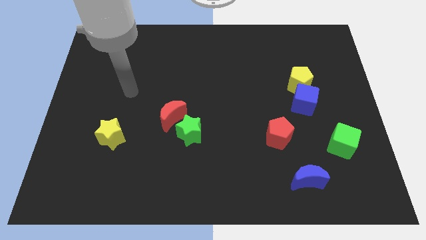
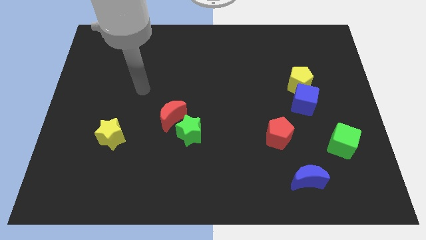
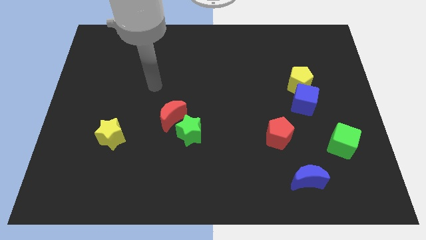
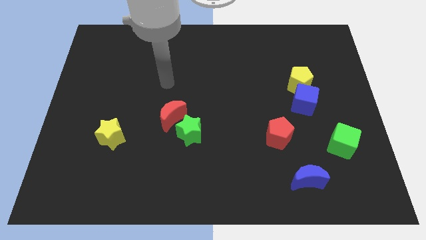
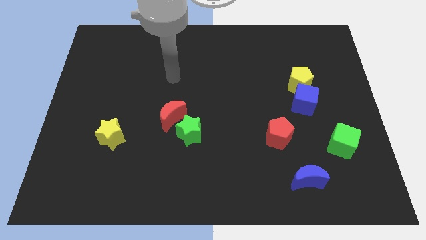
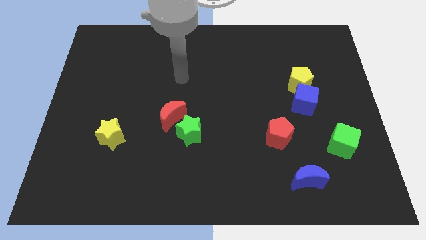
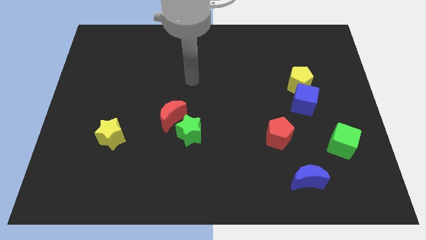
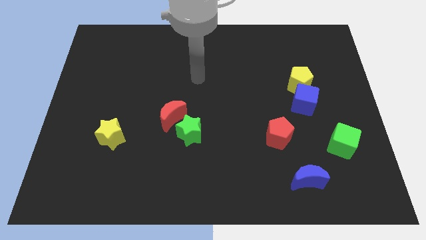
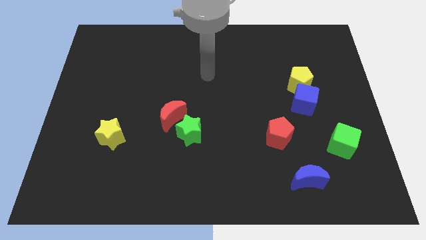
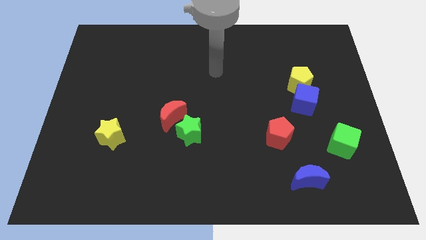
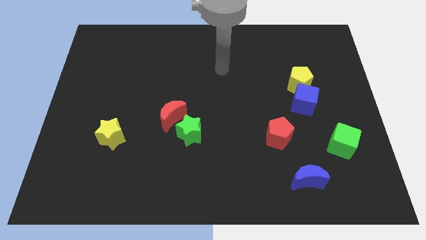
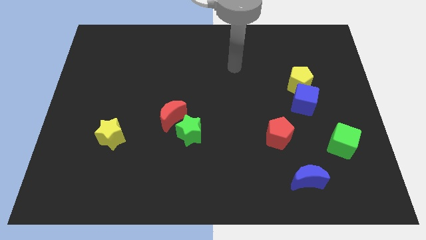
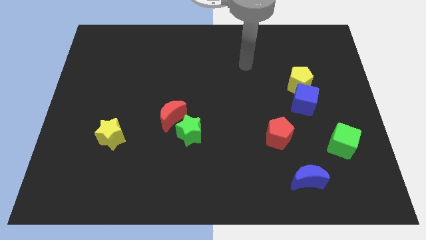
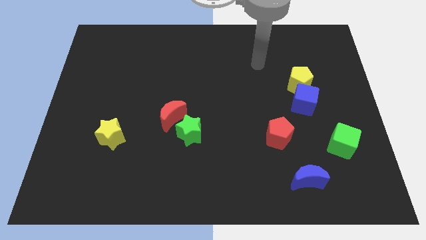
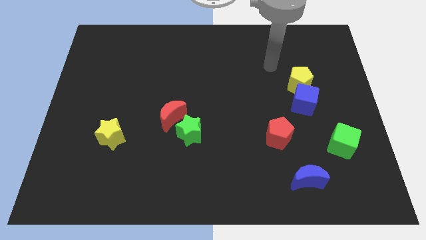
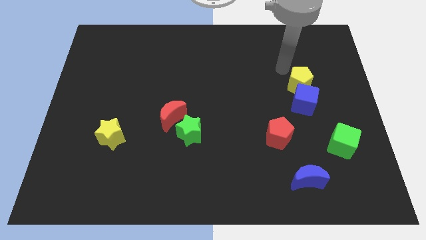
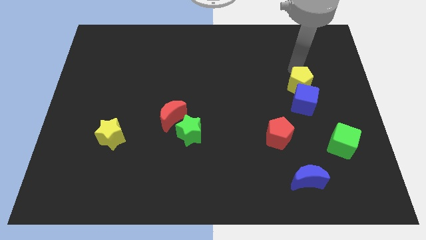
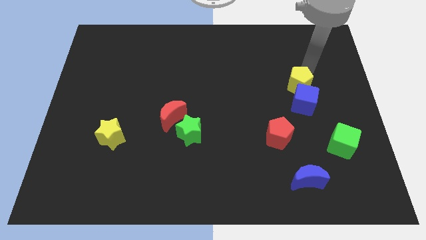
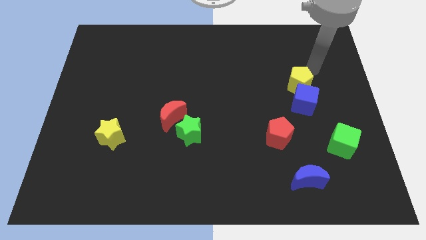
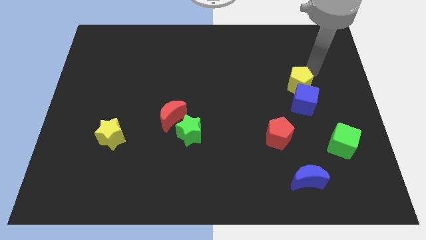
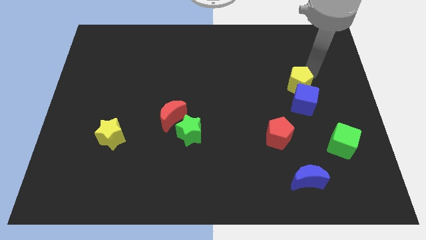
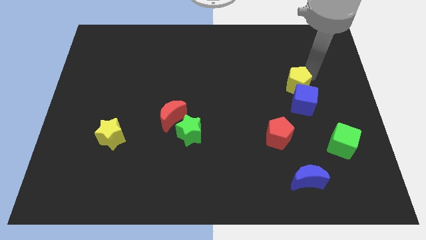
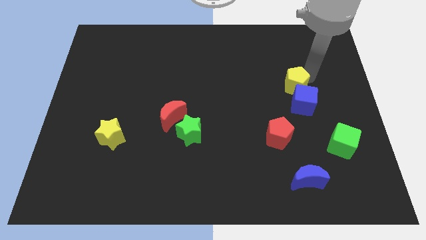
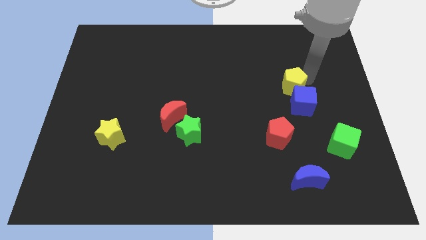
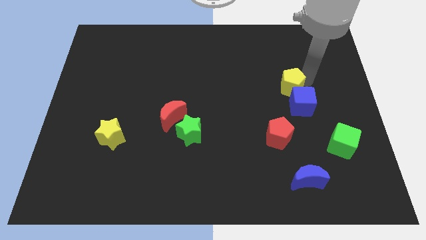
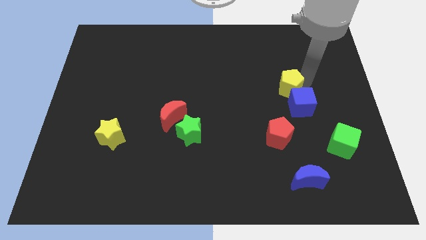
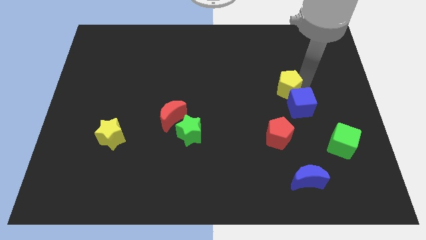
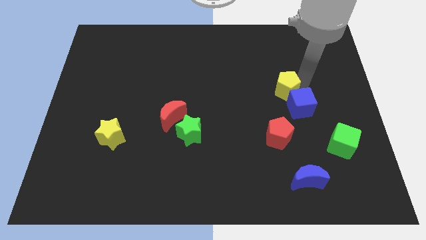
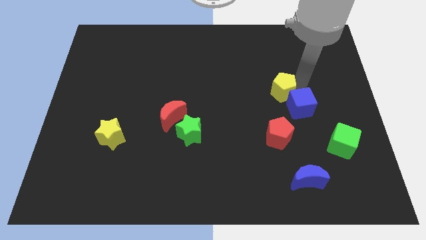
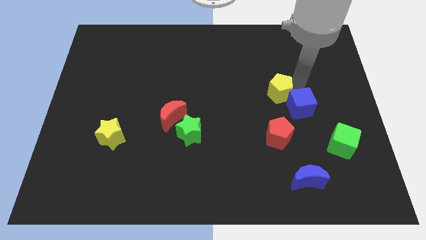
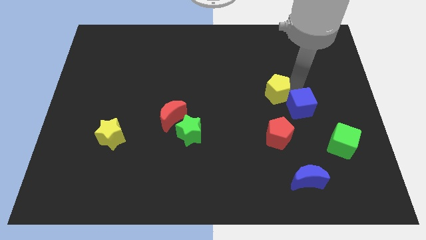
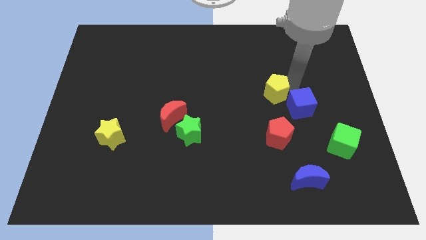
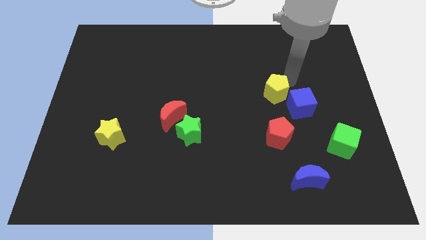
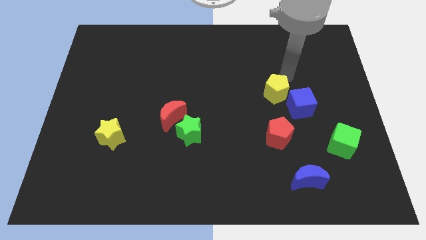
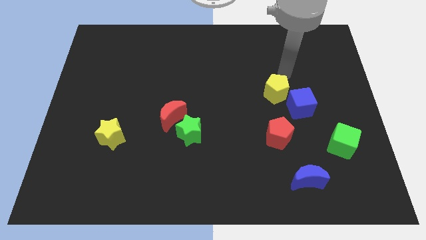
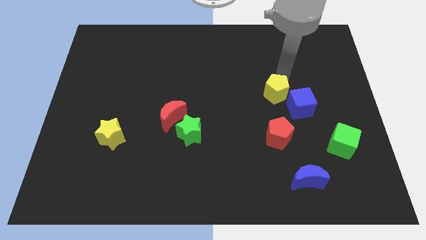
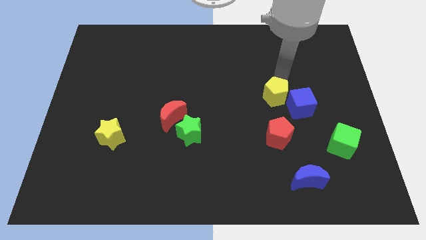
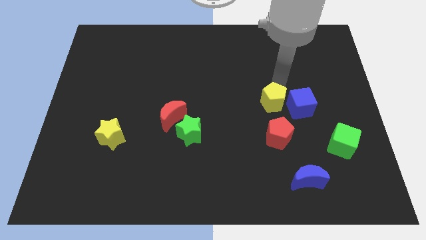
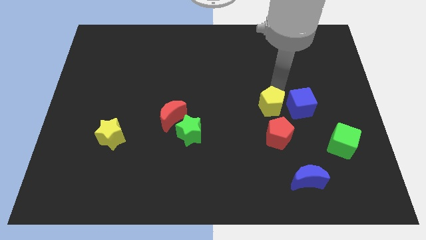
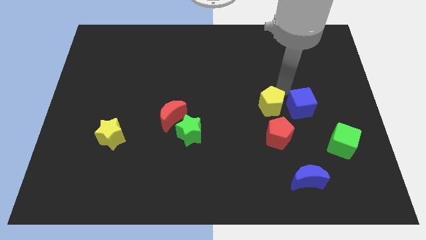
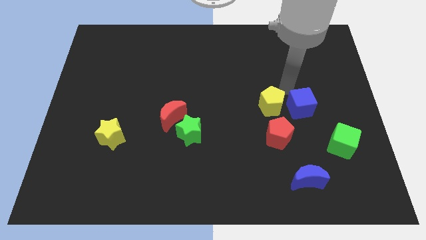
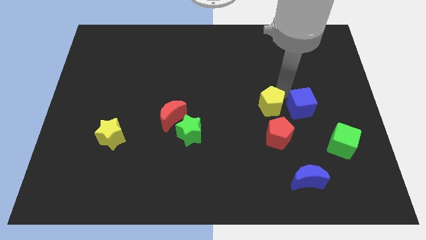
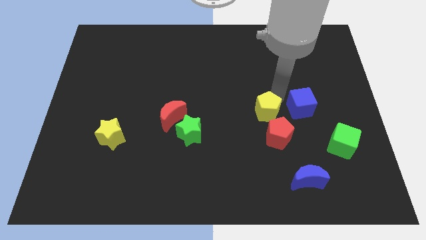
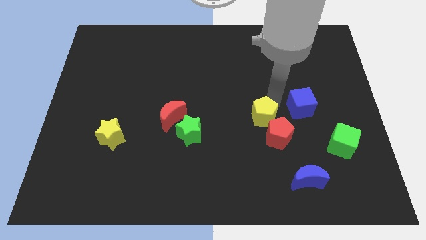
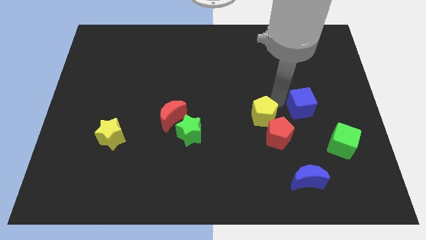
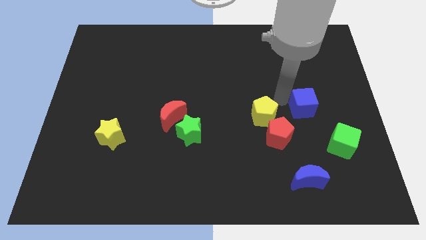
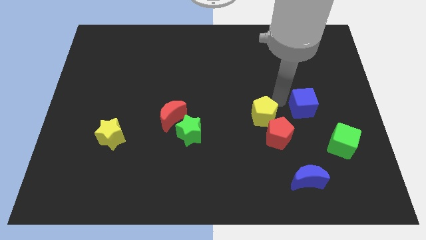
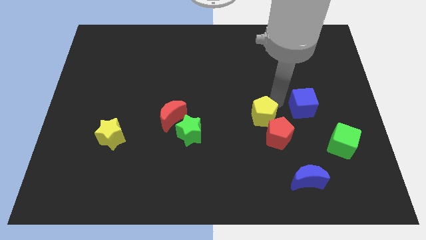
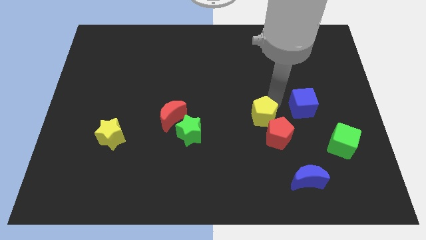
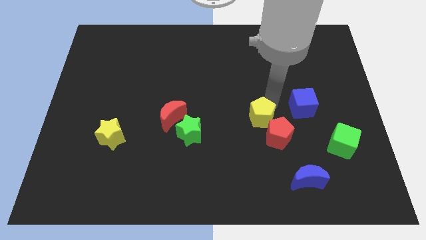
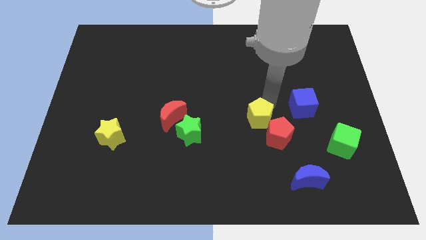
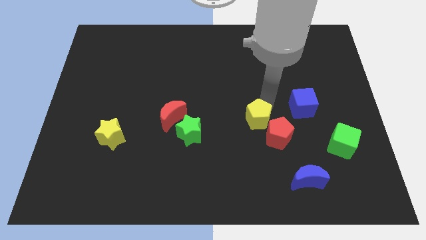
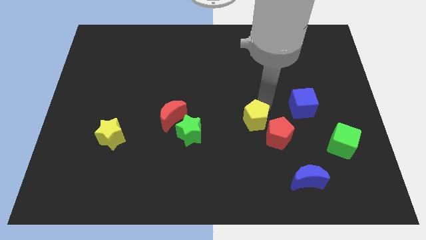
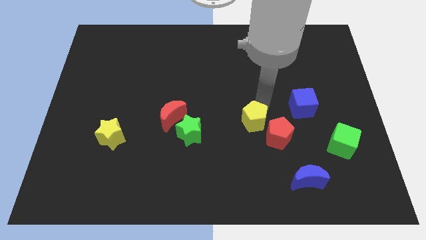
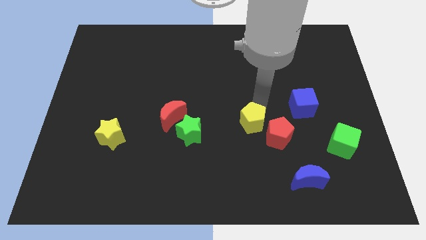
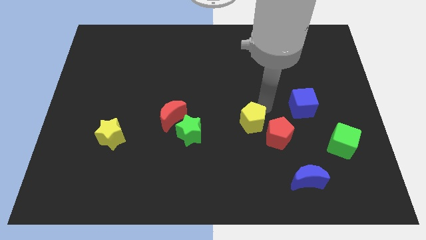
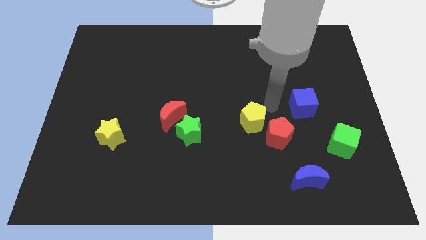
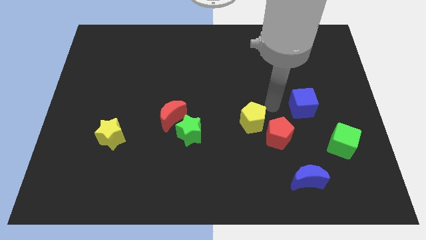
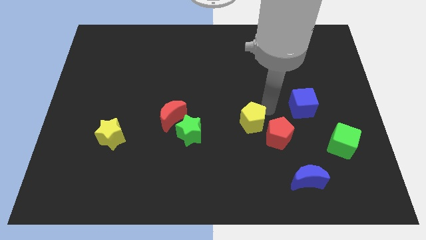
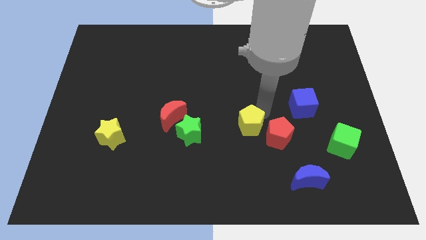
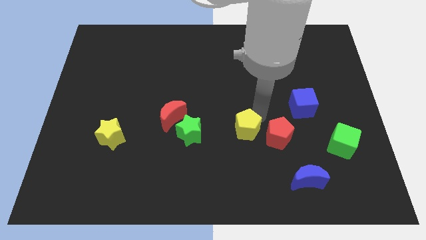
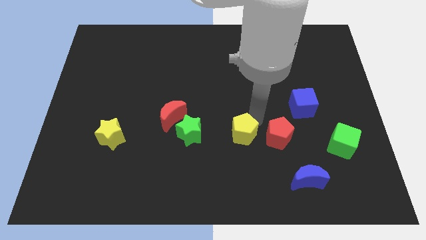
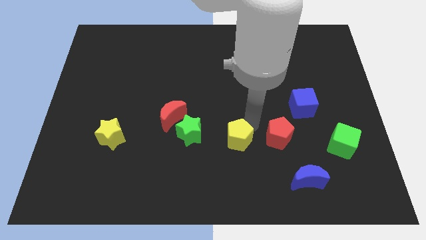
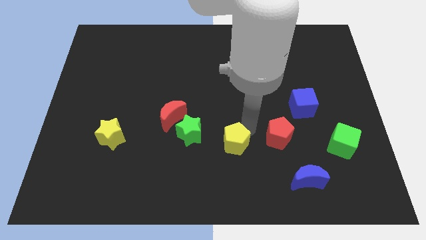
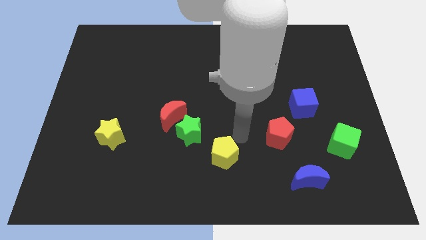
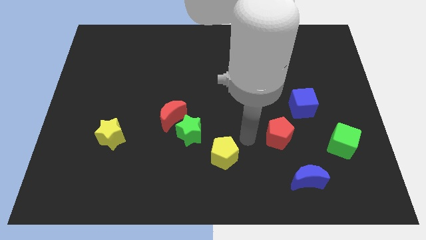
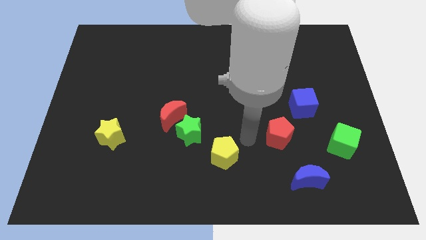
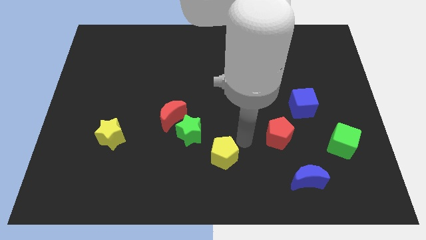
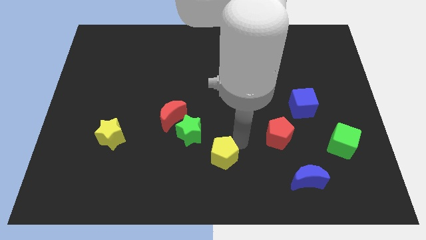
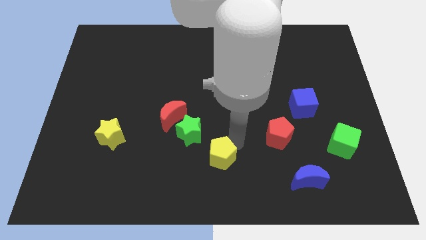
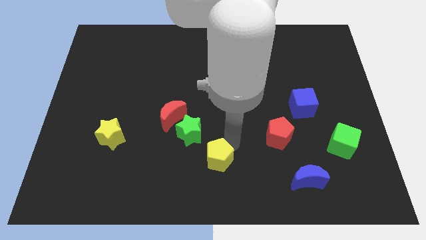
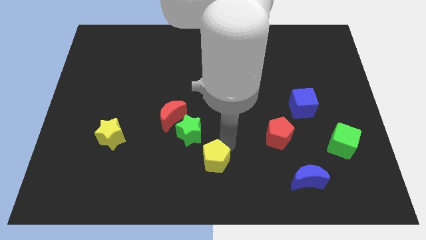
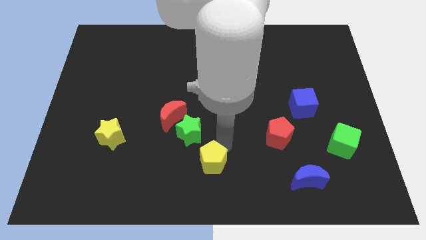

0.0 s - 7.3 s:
slide the yellow pentagon to the bottom of the green star

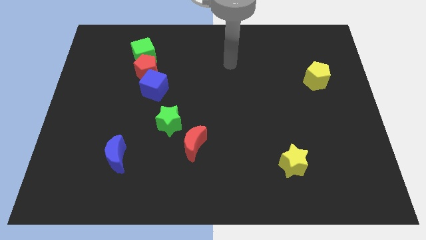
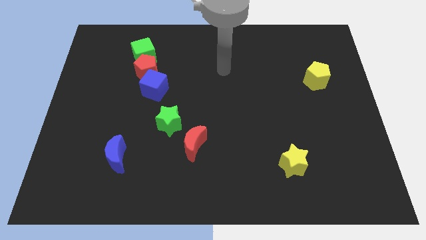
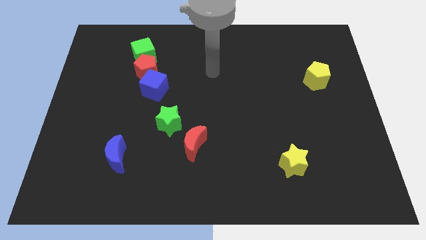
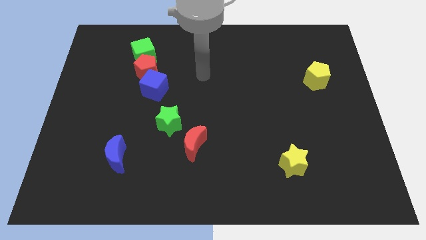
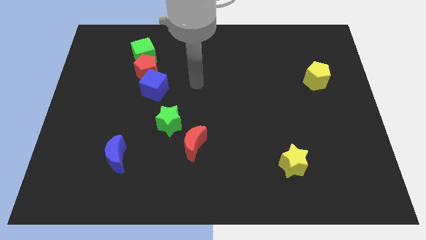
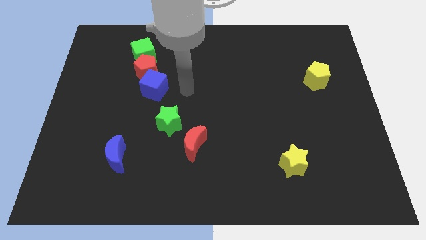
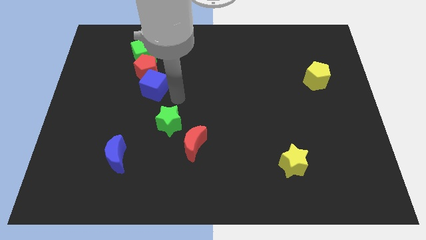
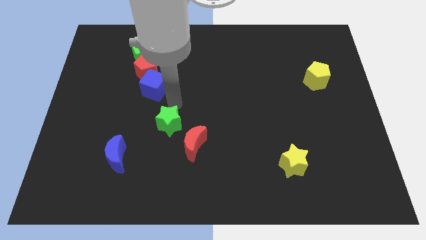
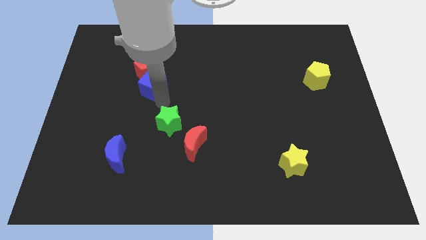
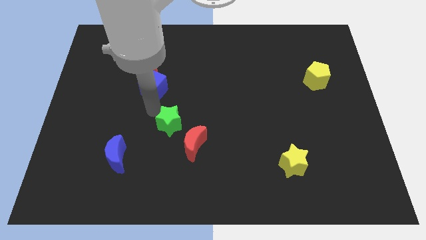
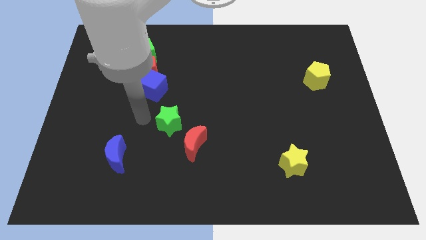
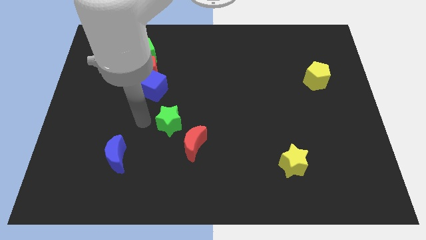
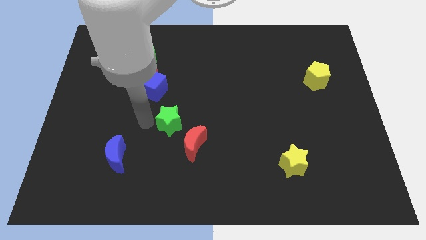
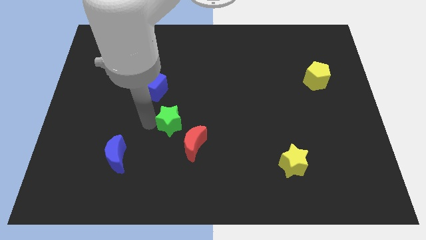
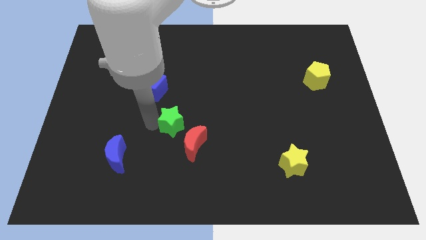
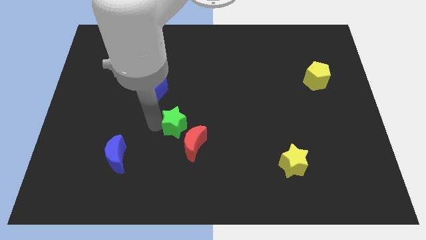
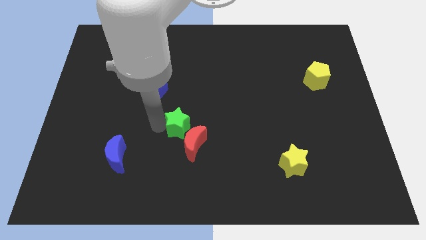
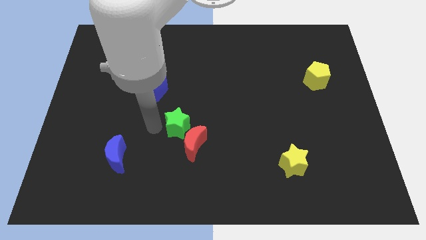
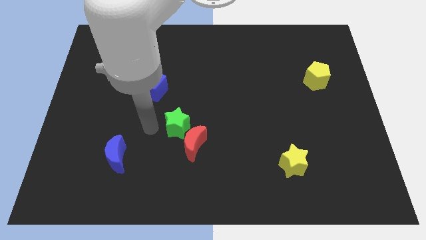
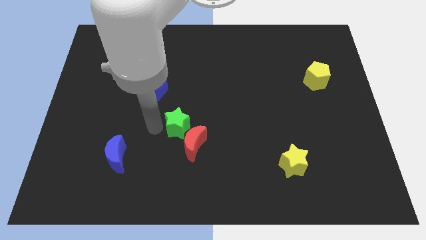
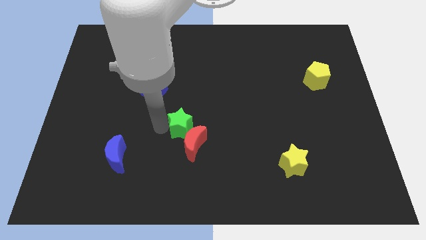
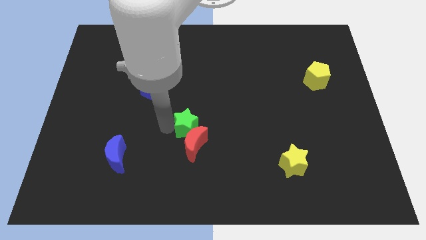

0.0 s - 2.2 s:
push the green star to the top right of the red moon
